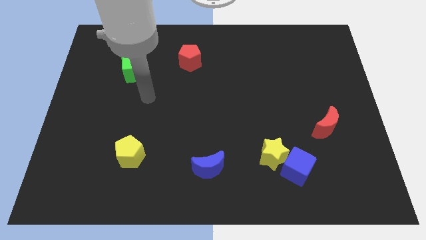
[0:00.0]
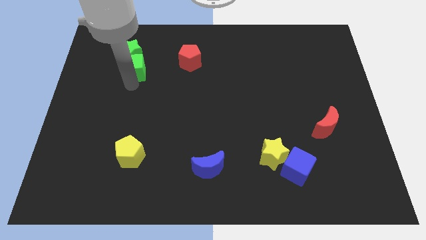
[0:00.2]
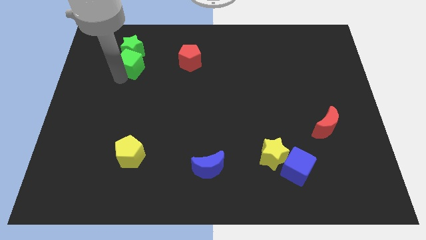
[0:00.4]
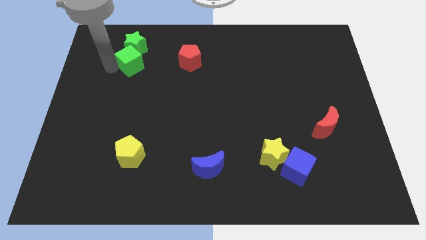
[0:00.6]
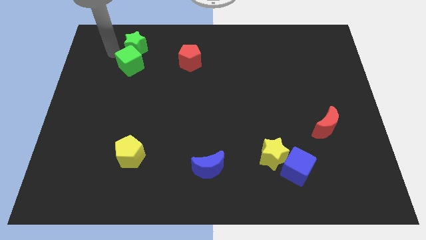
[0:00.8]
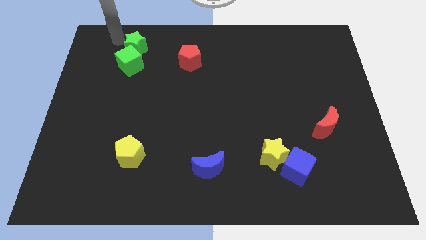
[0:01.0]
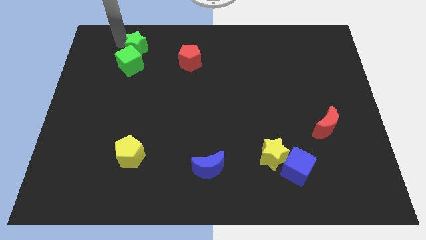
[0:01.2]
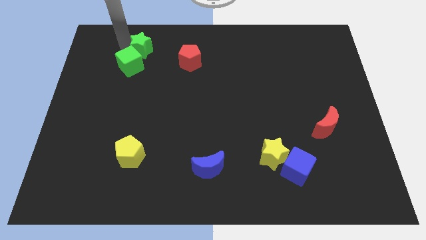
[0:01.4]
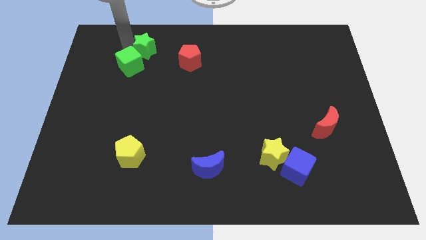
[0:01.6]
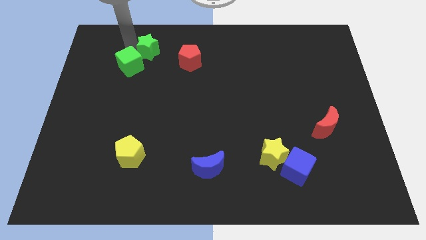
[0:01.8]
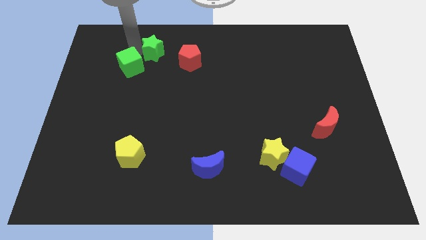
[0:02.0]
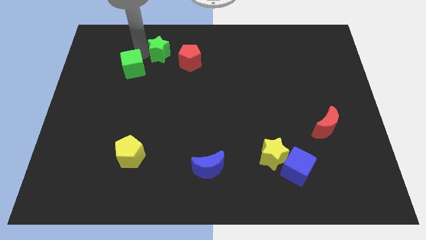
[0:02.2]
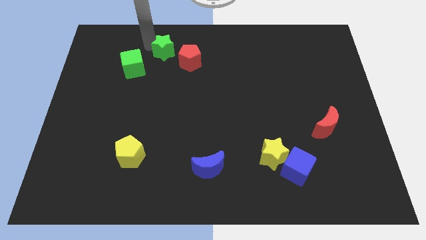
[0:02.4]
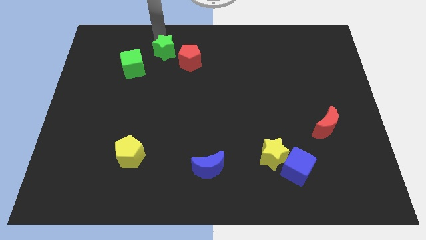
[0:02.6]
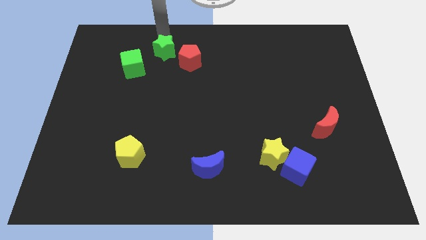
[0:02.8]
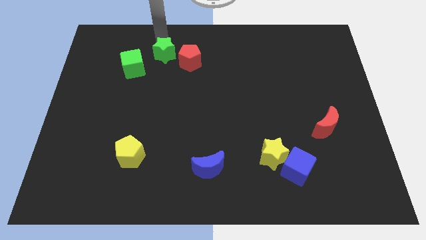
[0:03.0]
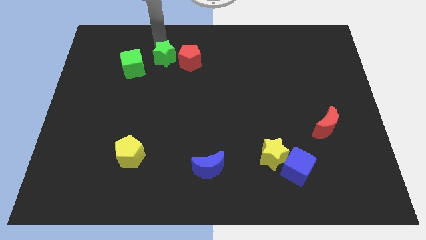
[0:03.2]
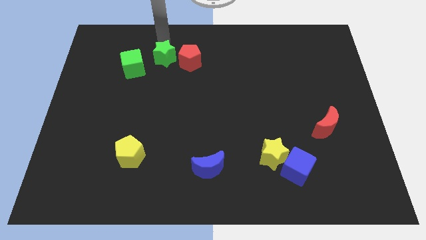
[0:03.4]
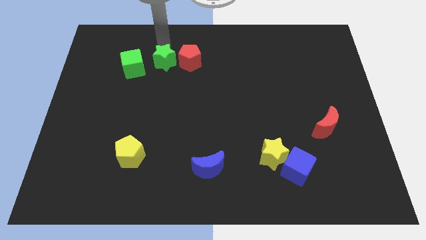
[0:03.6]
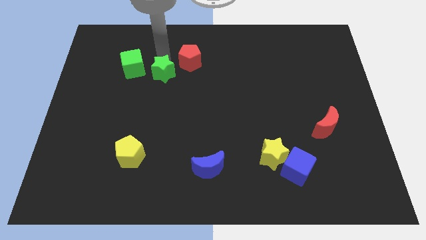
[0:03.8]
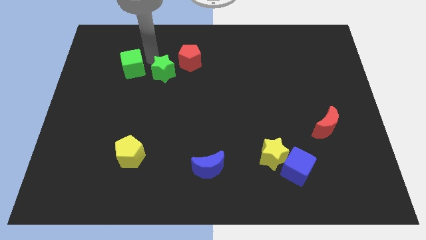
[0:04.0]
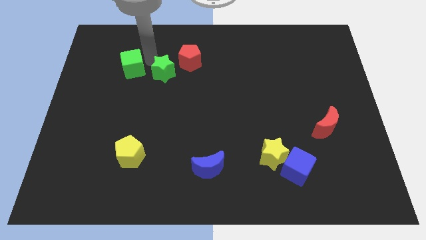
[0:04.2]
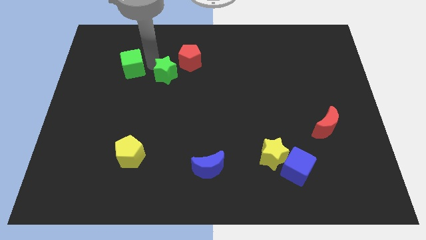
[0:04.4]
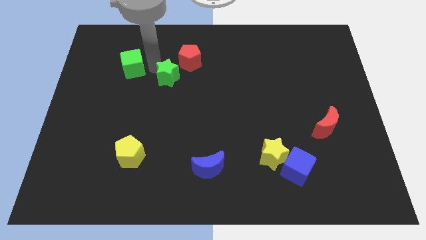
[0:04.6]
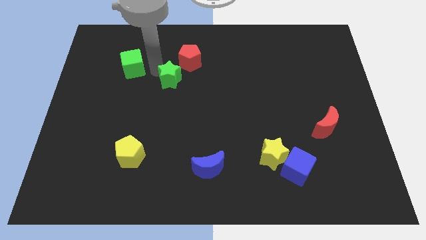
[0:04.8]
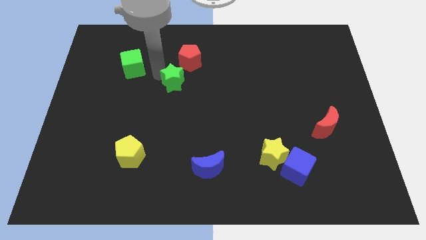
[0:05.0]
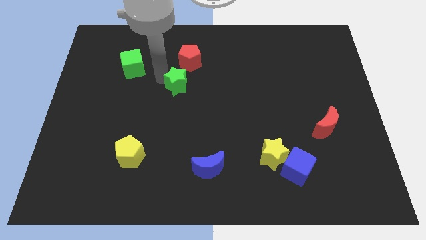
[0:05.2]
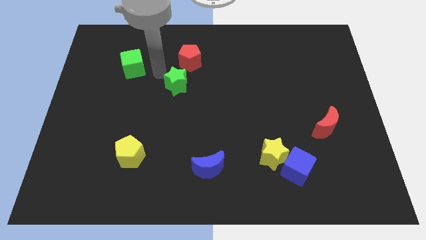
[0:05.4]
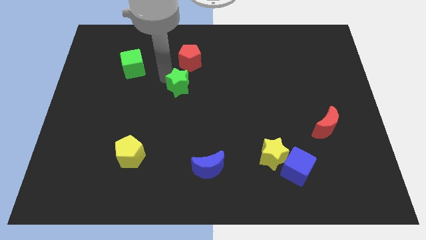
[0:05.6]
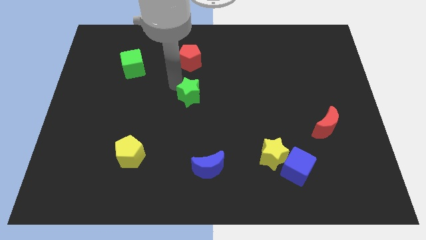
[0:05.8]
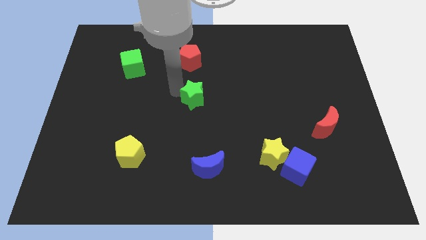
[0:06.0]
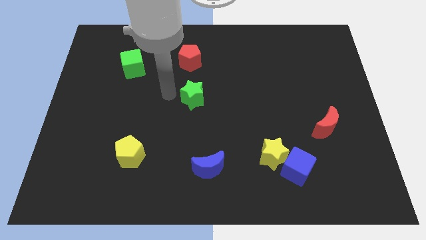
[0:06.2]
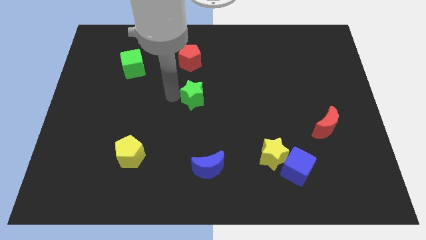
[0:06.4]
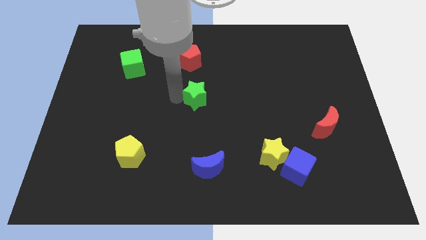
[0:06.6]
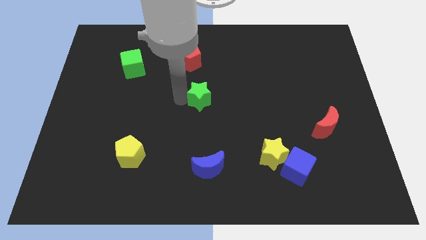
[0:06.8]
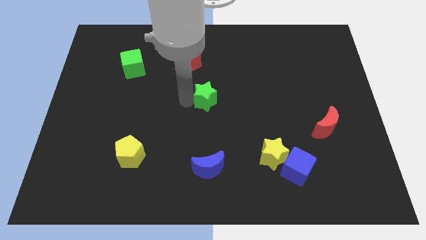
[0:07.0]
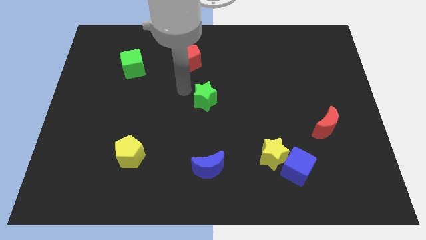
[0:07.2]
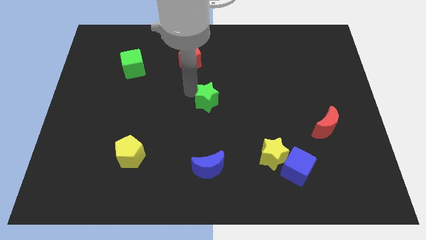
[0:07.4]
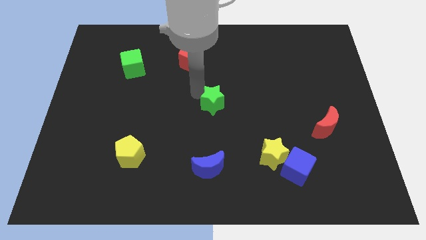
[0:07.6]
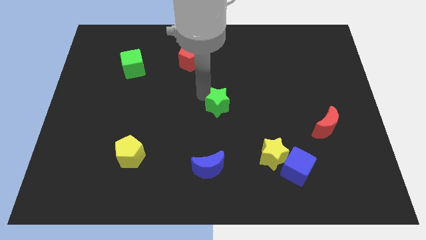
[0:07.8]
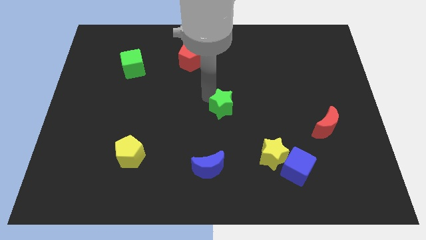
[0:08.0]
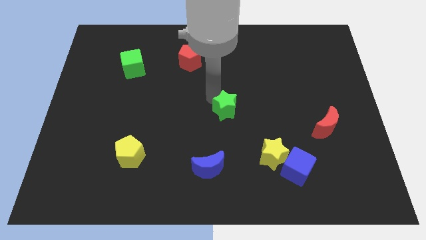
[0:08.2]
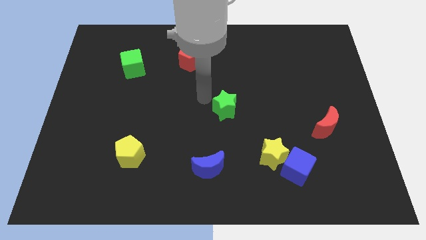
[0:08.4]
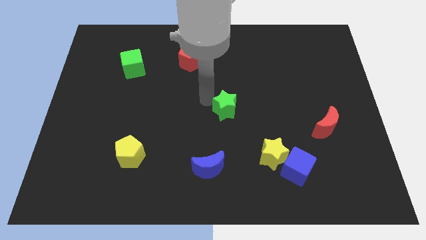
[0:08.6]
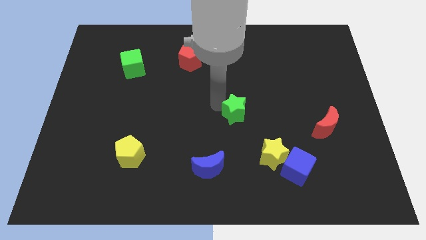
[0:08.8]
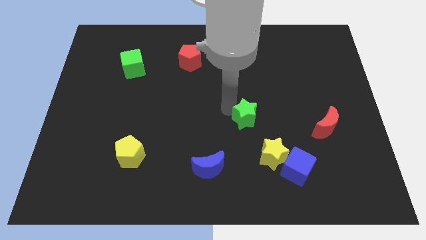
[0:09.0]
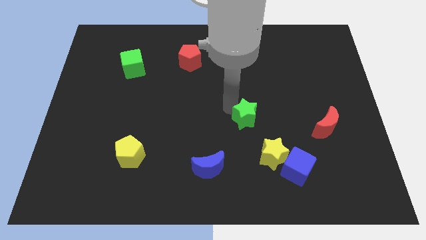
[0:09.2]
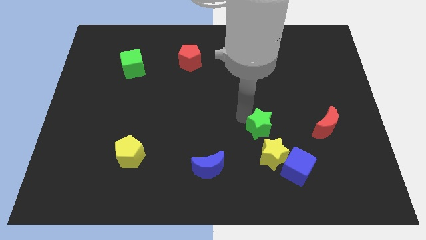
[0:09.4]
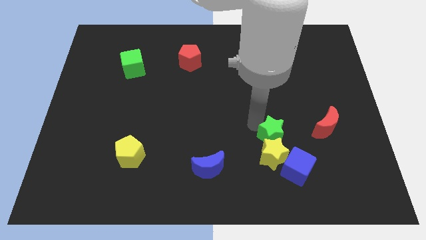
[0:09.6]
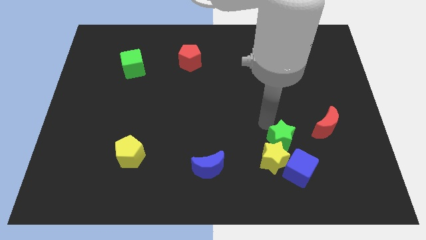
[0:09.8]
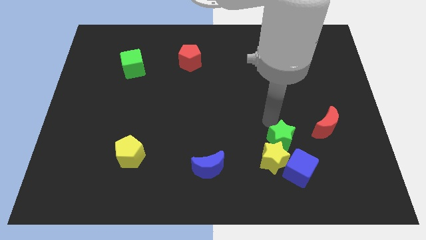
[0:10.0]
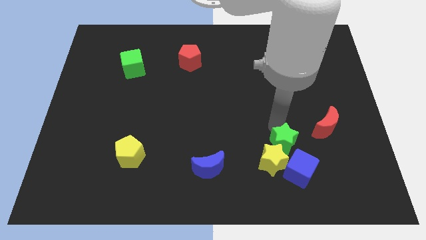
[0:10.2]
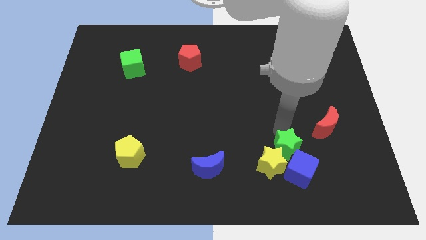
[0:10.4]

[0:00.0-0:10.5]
put the green star to the blue cube

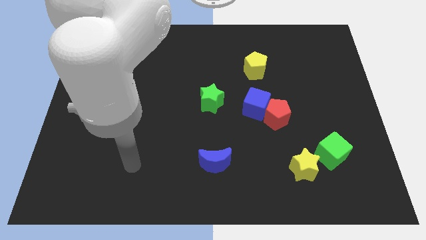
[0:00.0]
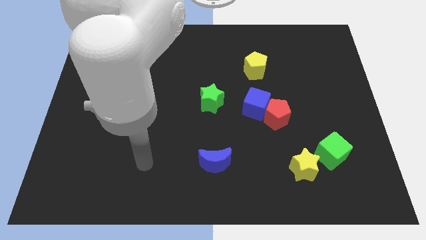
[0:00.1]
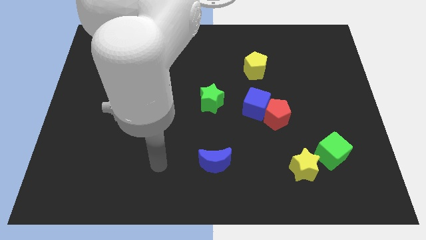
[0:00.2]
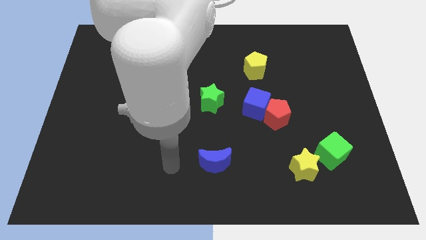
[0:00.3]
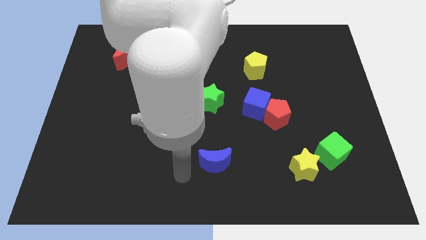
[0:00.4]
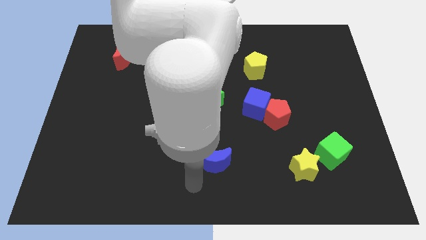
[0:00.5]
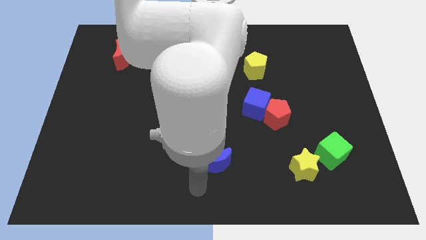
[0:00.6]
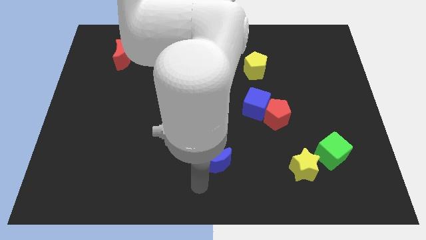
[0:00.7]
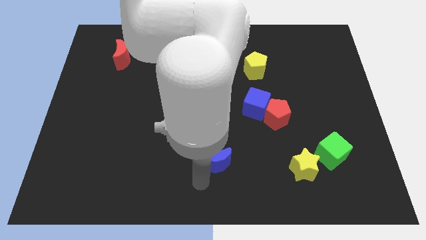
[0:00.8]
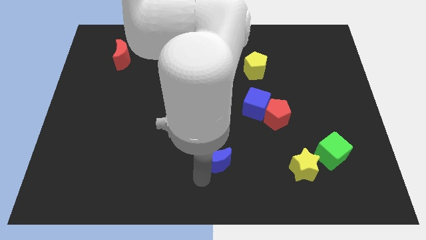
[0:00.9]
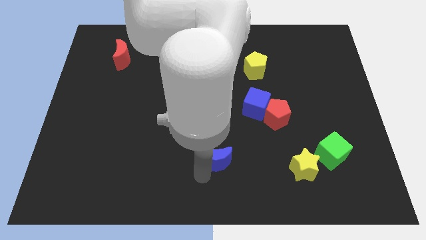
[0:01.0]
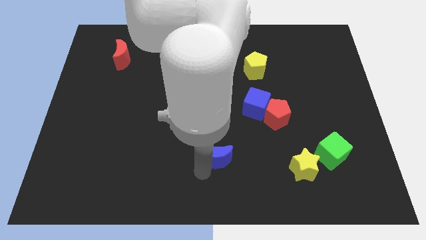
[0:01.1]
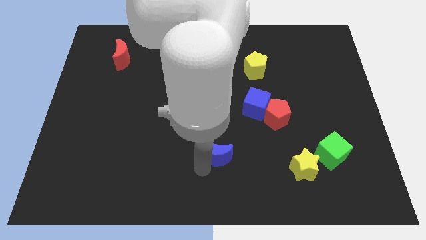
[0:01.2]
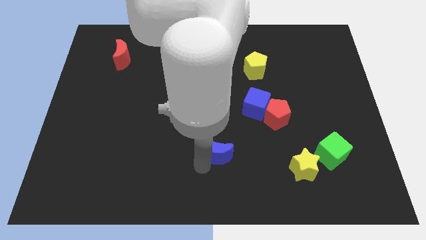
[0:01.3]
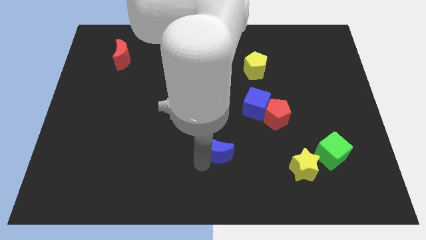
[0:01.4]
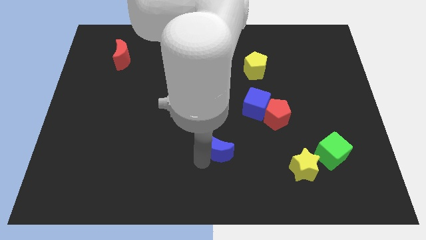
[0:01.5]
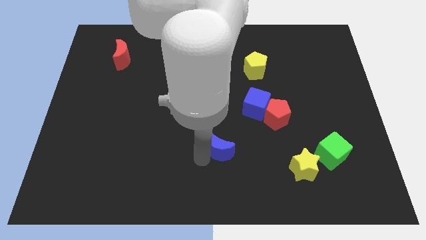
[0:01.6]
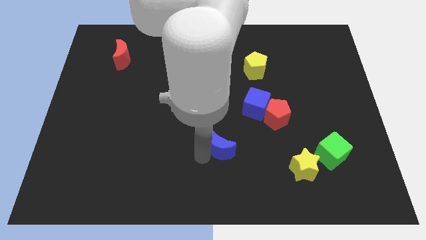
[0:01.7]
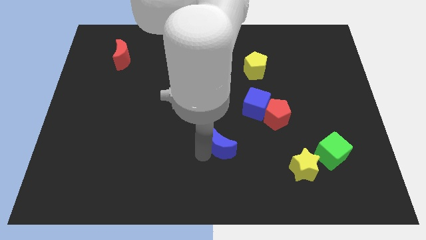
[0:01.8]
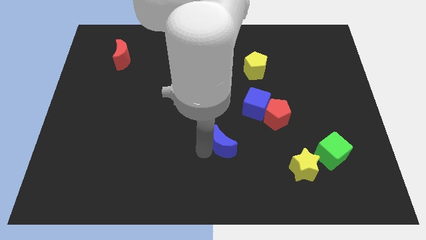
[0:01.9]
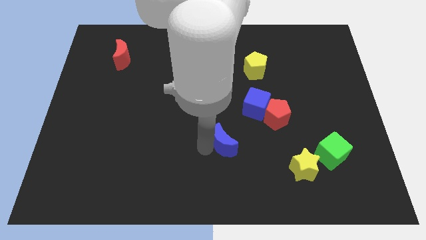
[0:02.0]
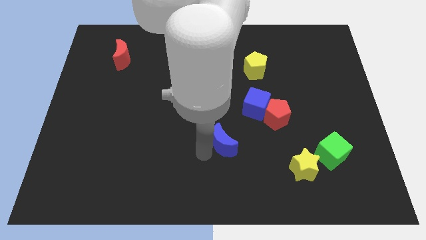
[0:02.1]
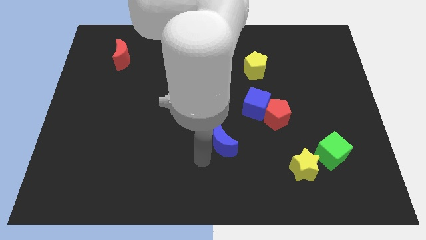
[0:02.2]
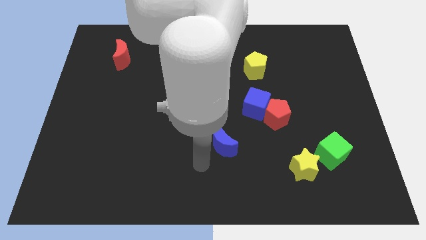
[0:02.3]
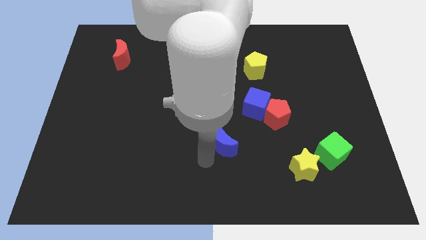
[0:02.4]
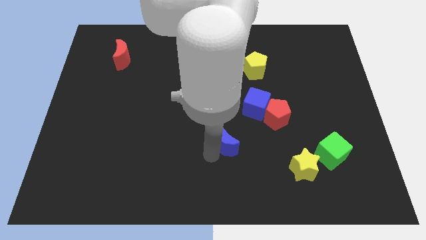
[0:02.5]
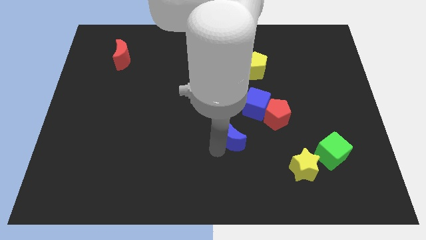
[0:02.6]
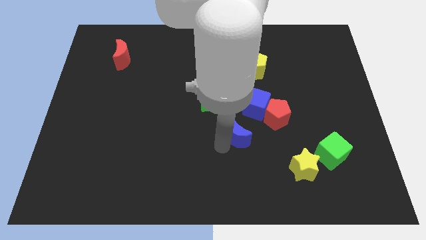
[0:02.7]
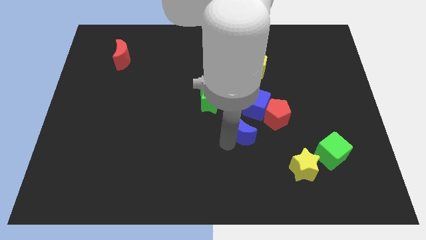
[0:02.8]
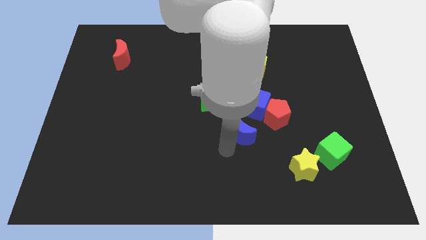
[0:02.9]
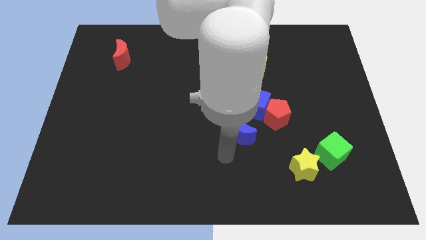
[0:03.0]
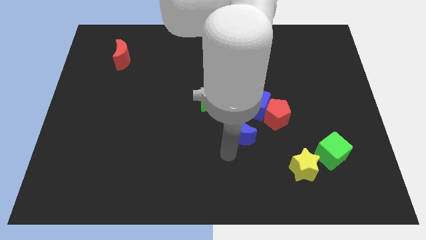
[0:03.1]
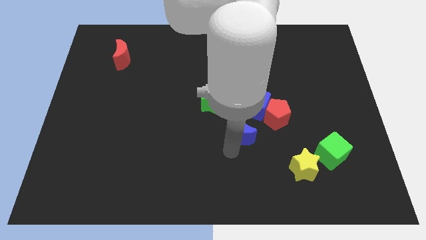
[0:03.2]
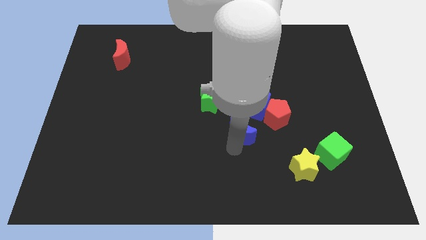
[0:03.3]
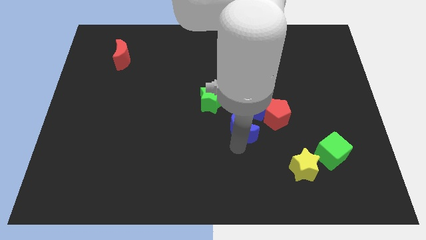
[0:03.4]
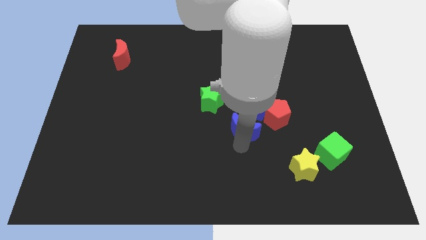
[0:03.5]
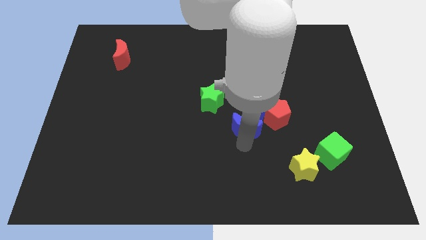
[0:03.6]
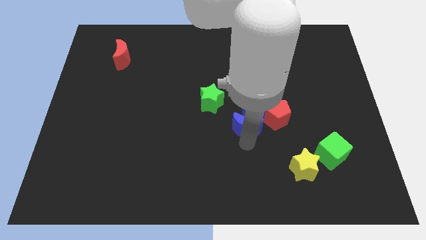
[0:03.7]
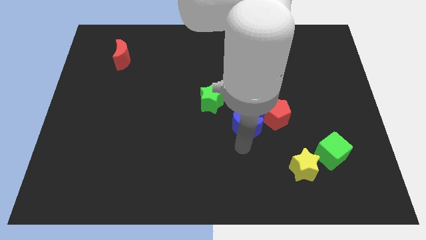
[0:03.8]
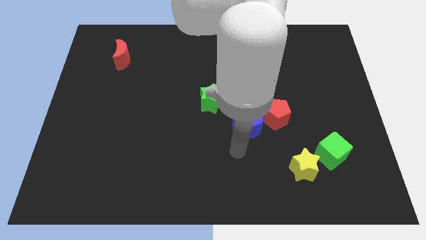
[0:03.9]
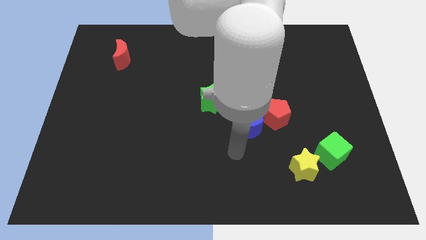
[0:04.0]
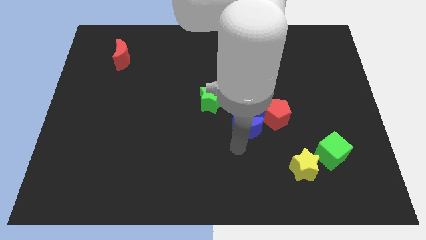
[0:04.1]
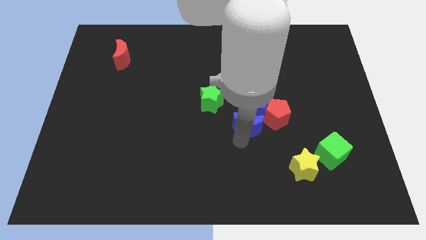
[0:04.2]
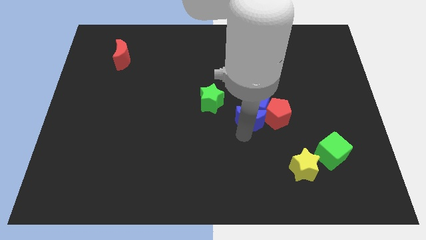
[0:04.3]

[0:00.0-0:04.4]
push the blue moon close to the blue cube
